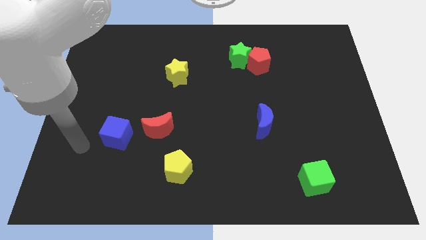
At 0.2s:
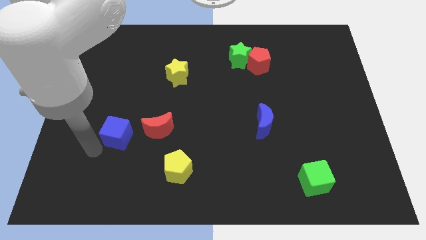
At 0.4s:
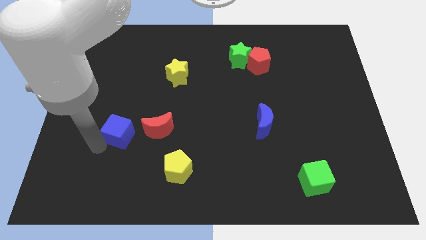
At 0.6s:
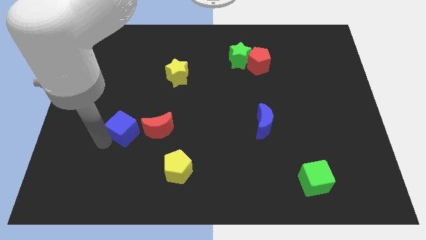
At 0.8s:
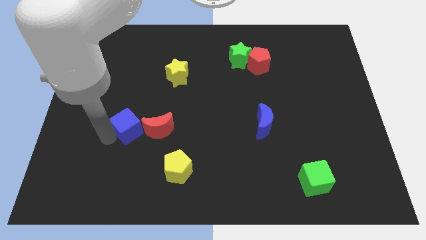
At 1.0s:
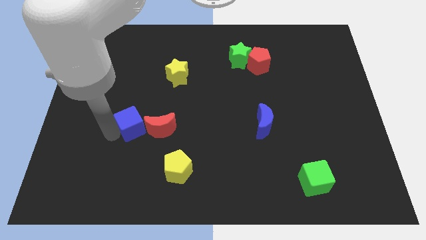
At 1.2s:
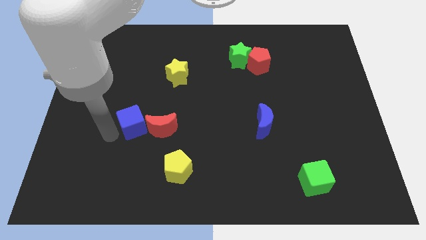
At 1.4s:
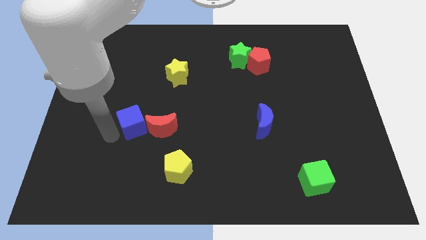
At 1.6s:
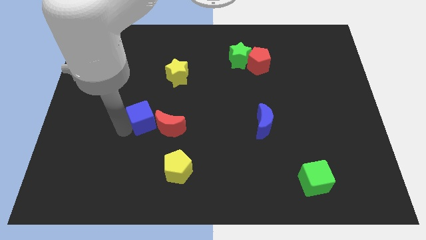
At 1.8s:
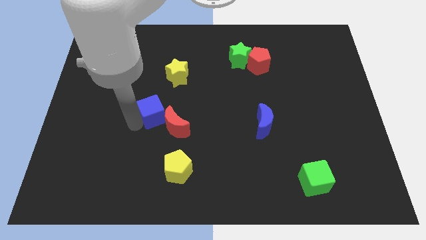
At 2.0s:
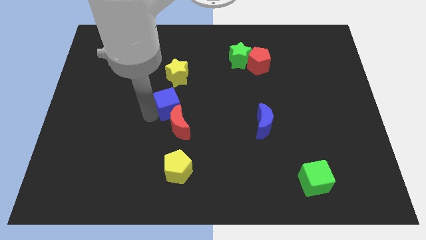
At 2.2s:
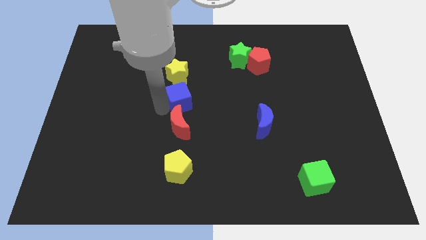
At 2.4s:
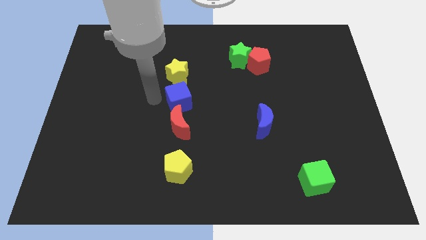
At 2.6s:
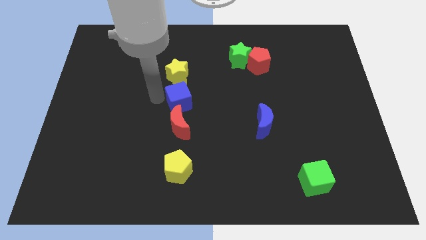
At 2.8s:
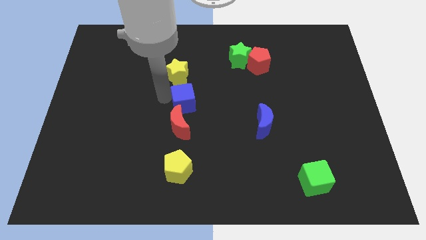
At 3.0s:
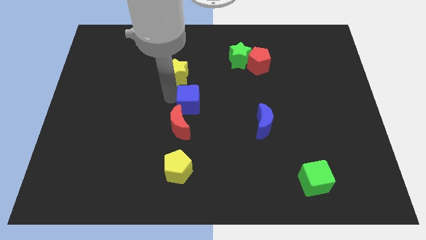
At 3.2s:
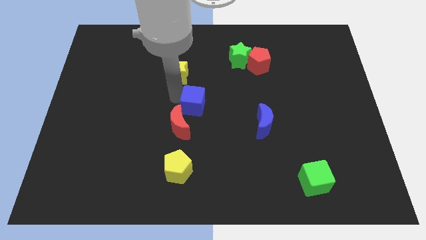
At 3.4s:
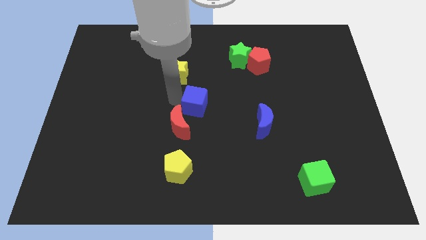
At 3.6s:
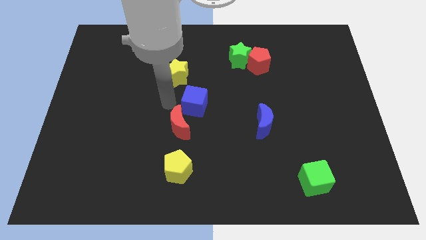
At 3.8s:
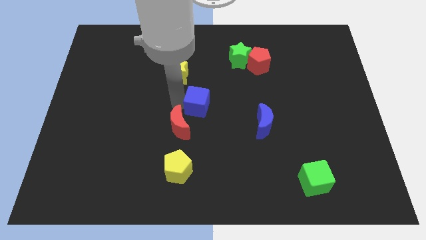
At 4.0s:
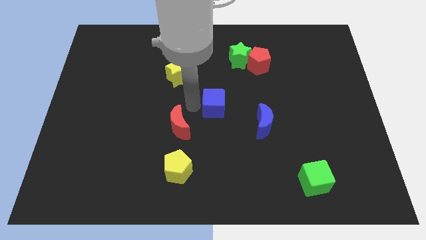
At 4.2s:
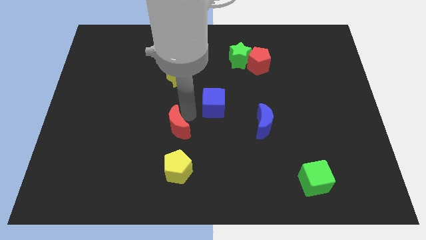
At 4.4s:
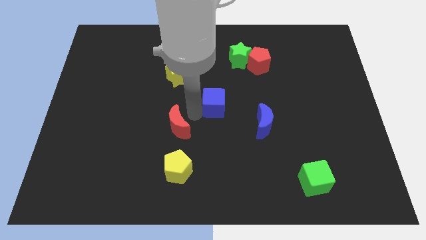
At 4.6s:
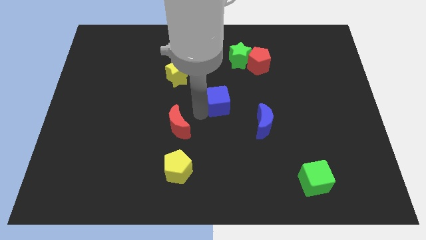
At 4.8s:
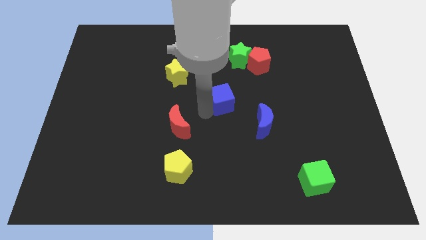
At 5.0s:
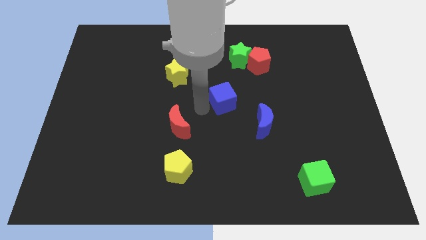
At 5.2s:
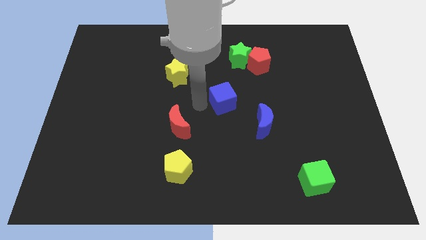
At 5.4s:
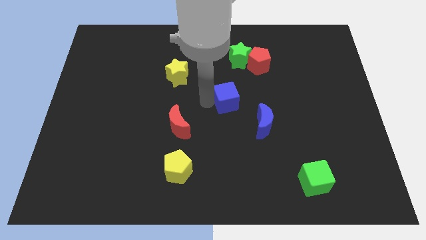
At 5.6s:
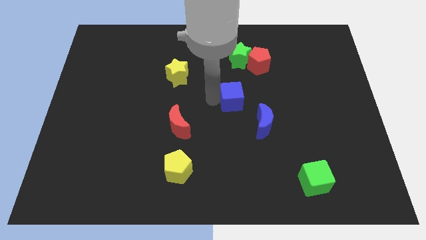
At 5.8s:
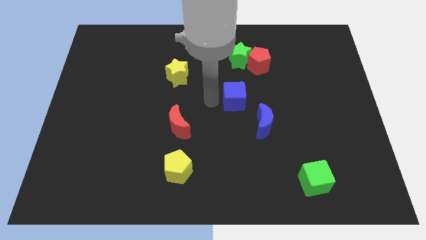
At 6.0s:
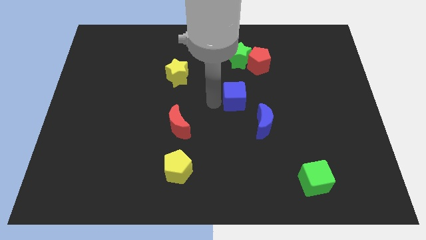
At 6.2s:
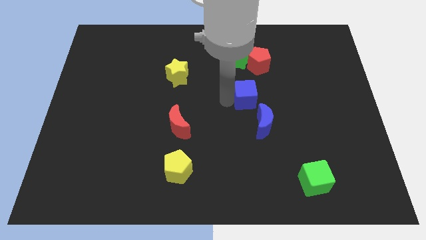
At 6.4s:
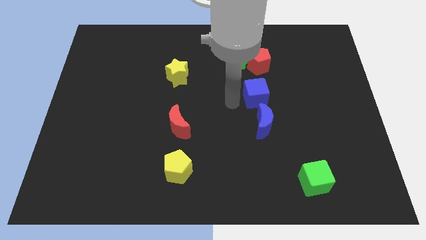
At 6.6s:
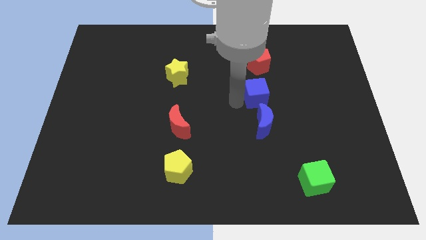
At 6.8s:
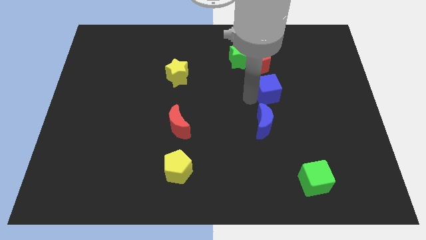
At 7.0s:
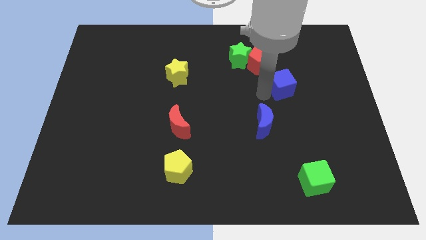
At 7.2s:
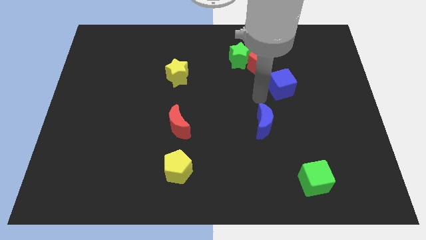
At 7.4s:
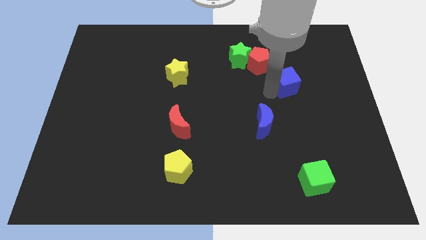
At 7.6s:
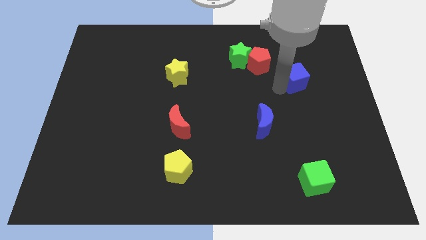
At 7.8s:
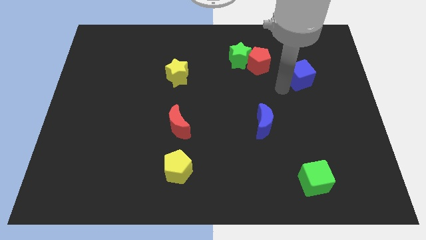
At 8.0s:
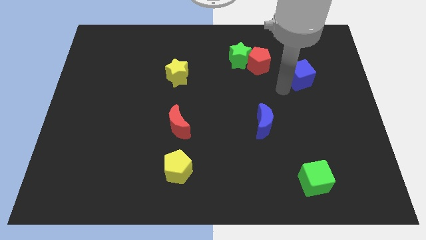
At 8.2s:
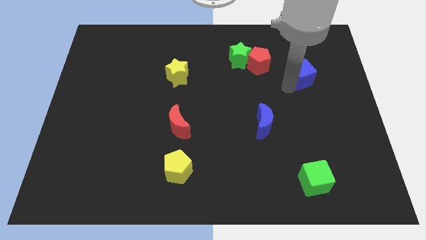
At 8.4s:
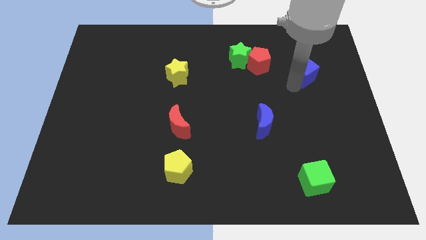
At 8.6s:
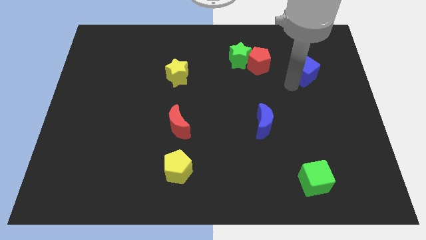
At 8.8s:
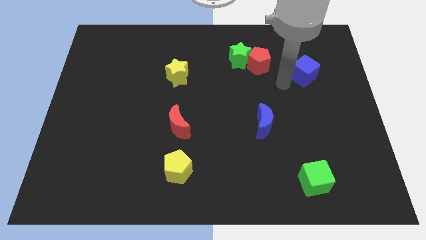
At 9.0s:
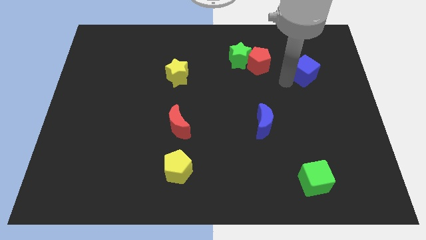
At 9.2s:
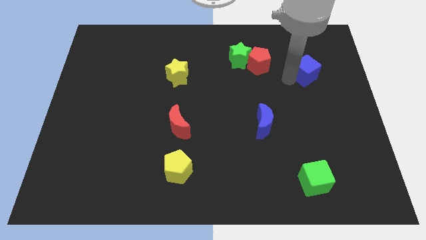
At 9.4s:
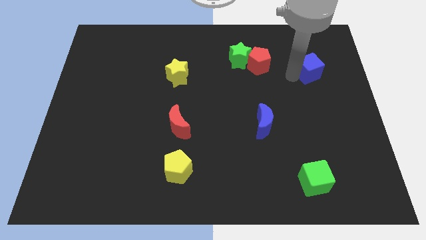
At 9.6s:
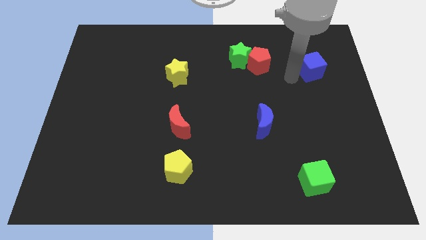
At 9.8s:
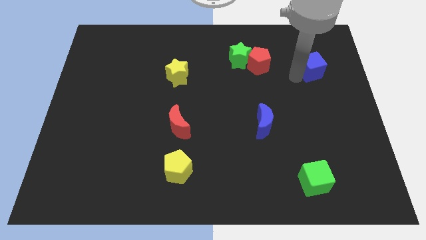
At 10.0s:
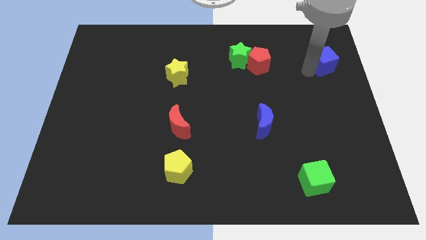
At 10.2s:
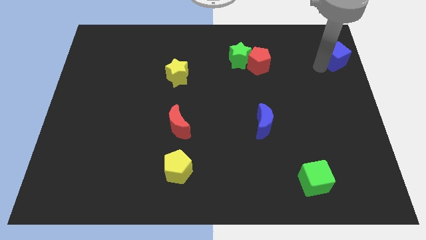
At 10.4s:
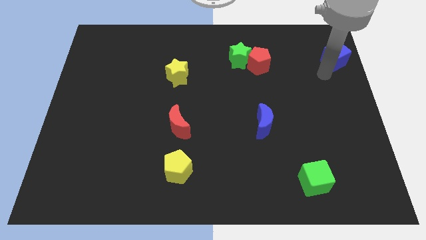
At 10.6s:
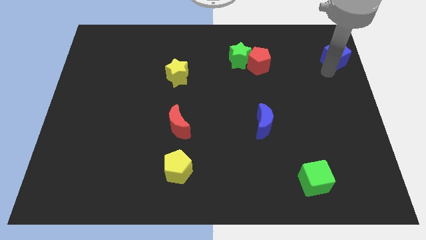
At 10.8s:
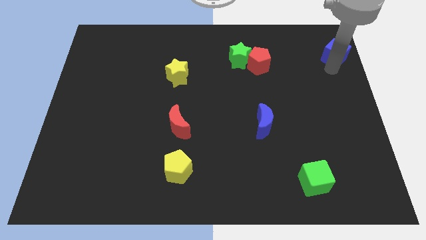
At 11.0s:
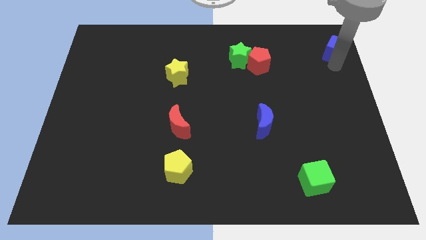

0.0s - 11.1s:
slide the blue cube to the top right
